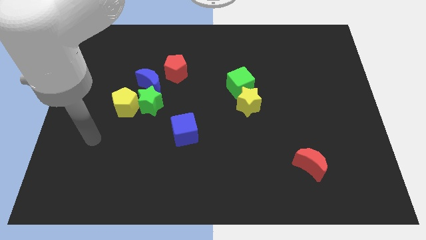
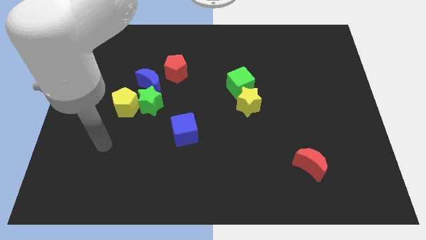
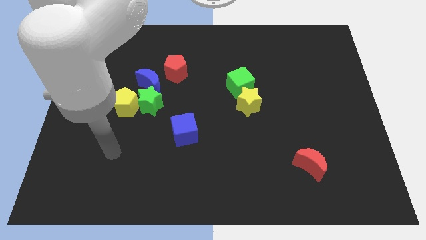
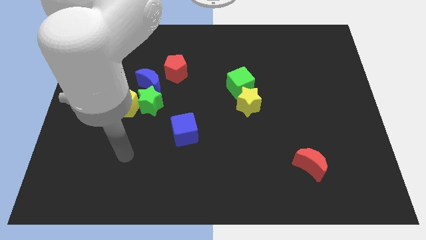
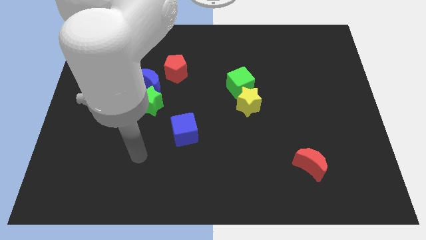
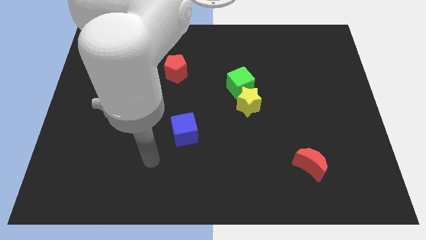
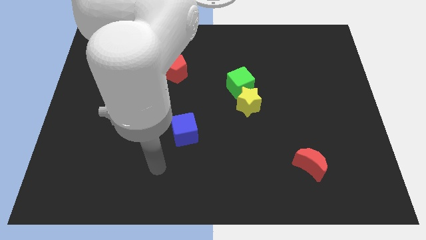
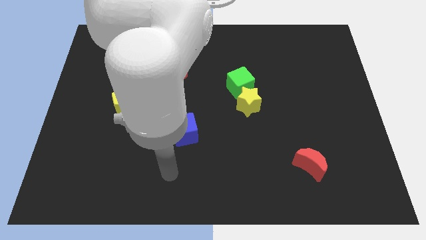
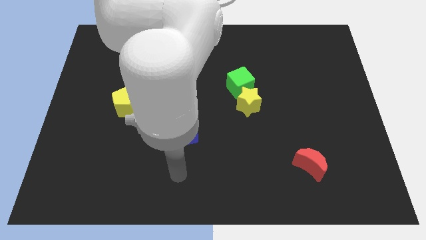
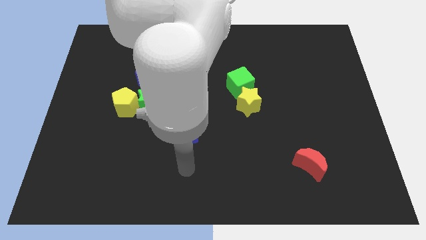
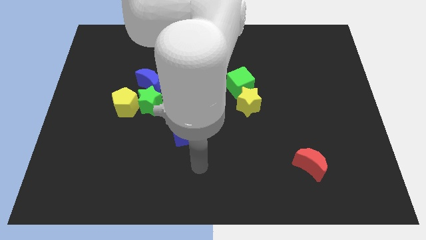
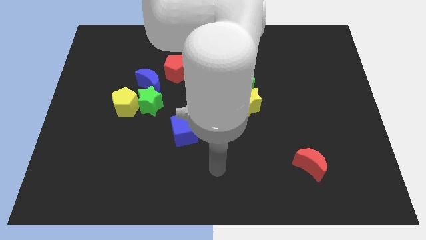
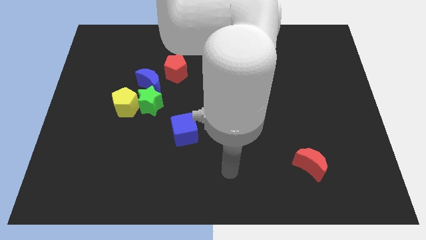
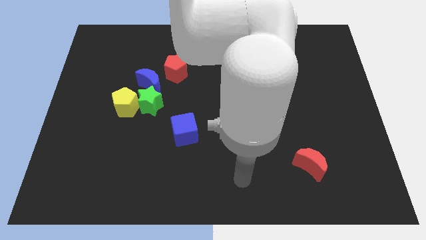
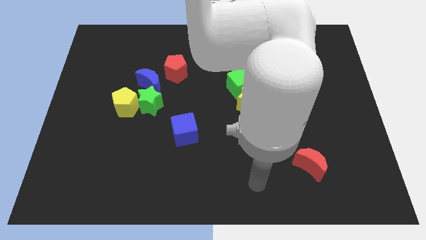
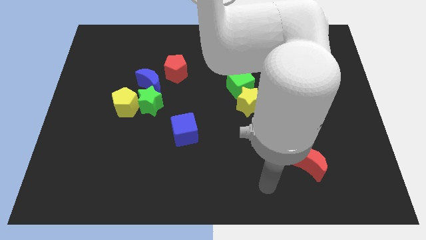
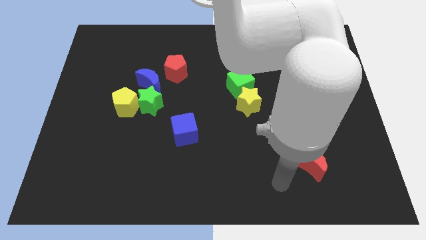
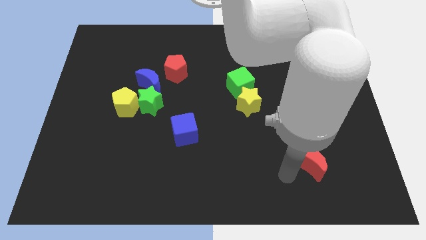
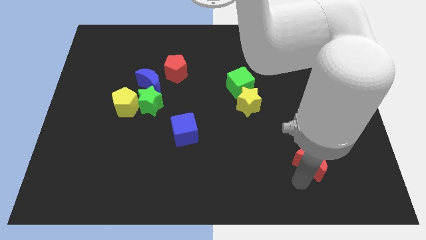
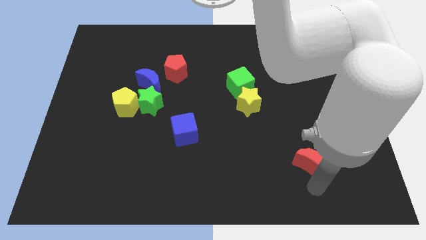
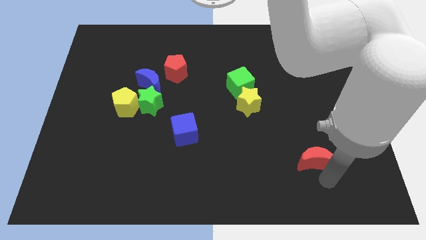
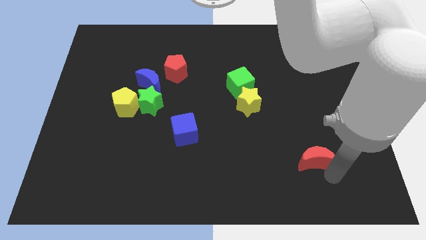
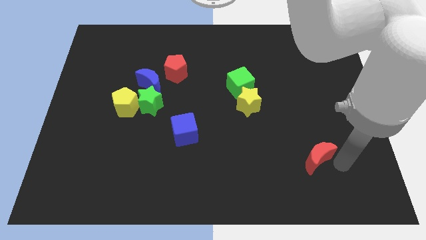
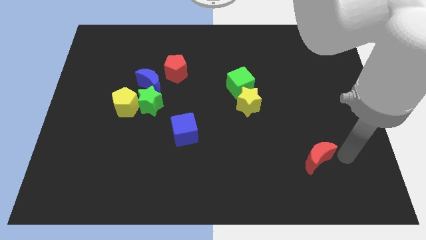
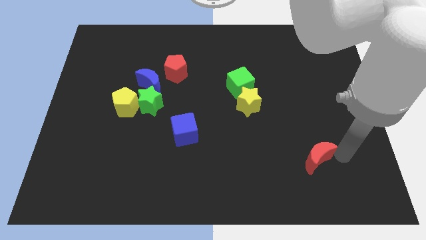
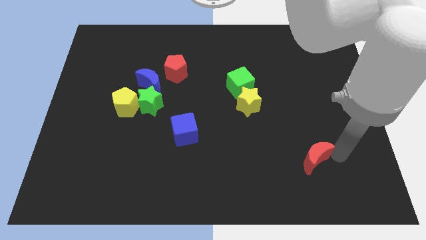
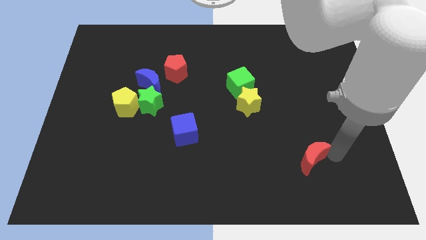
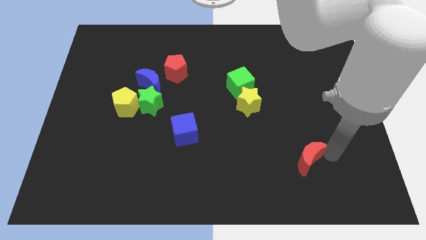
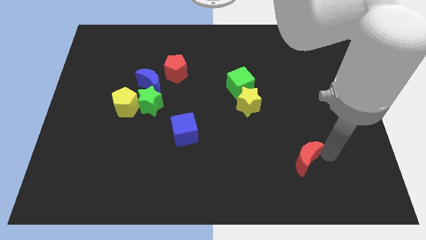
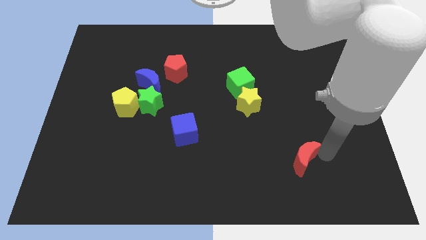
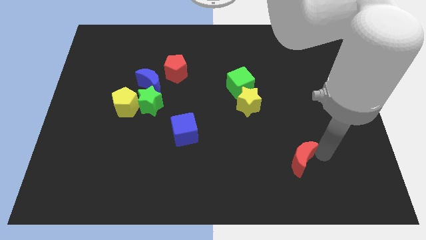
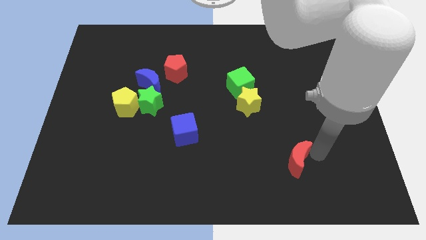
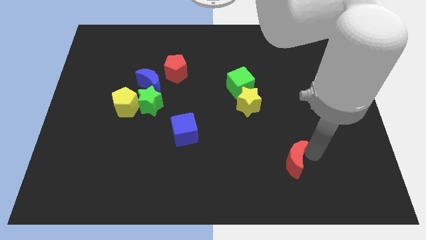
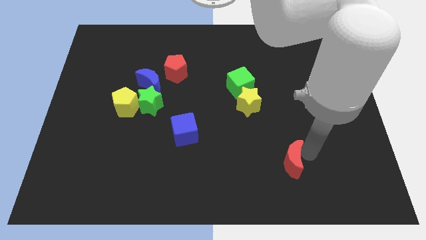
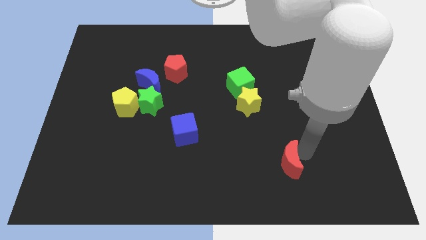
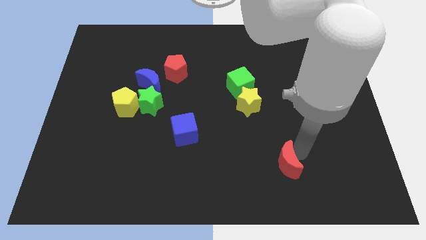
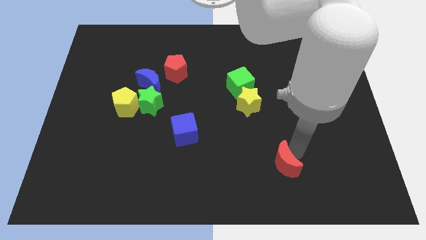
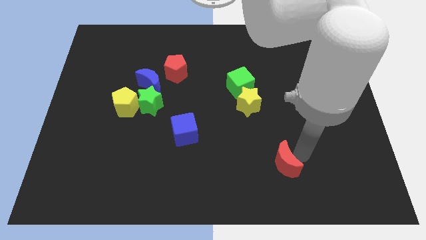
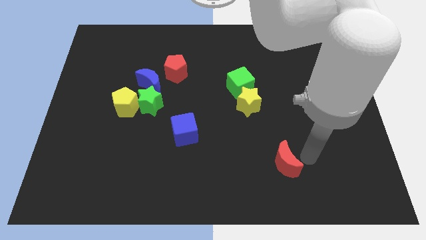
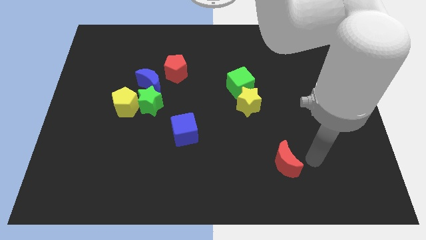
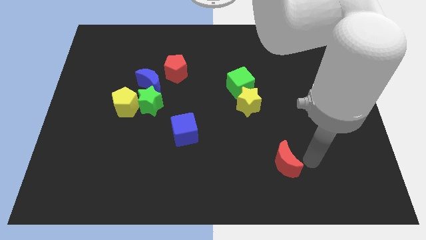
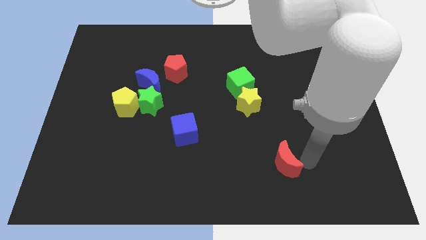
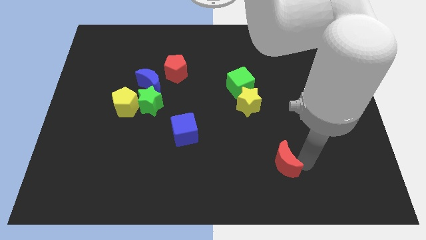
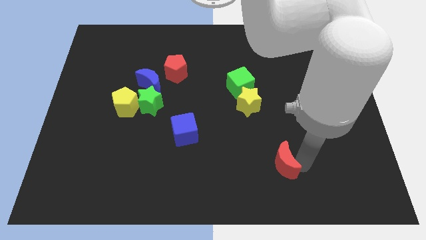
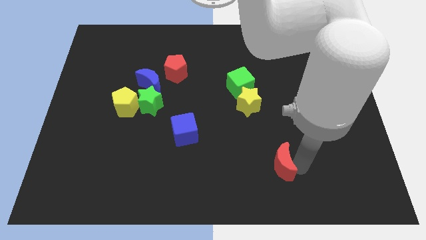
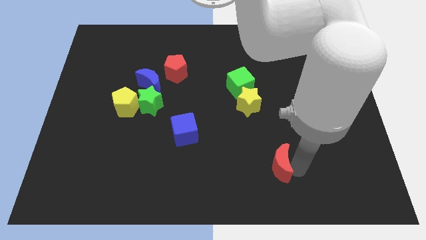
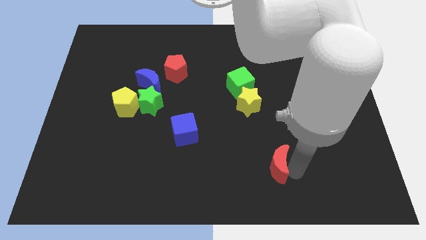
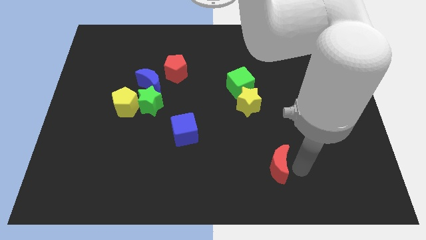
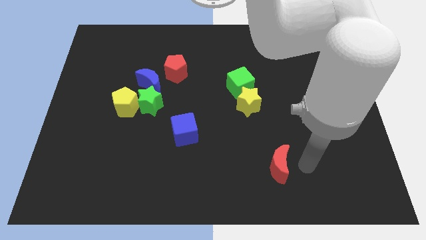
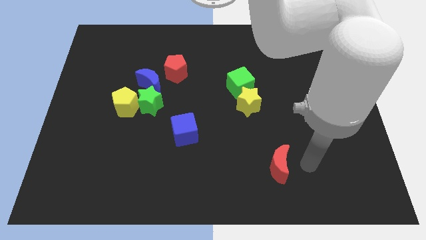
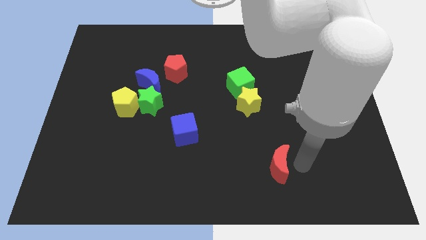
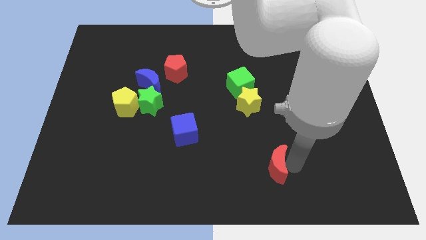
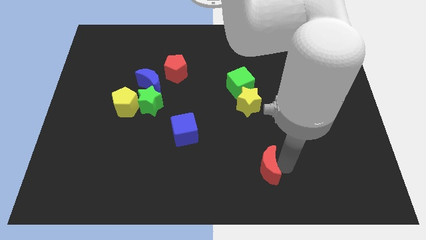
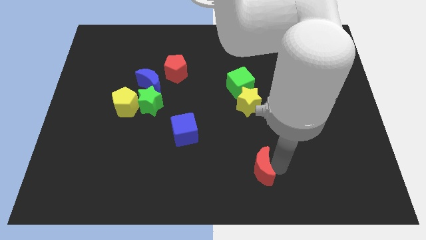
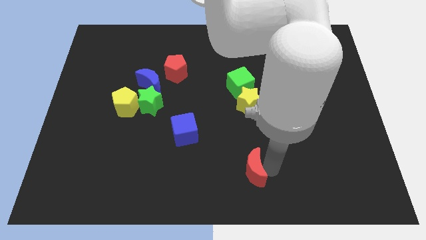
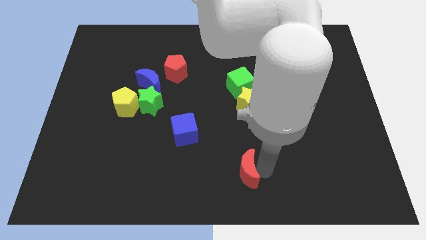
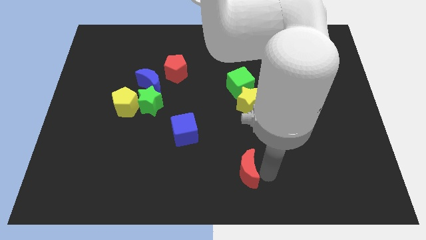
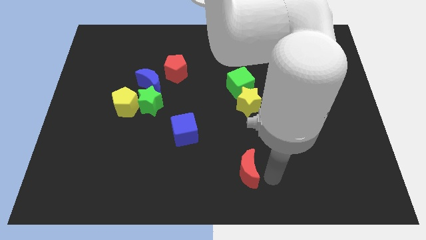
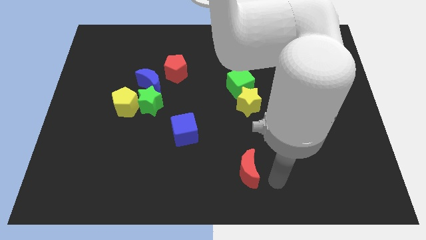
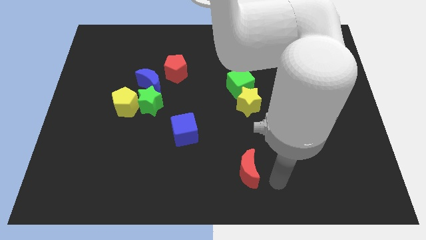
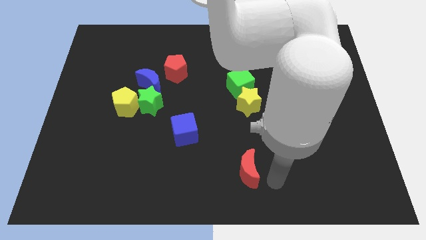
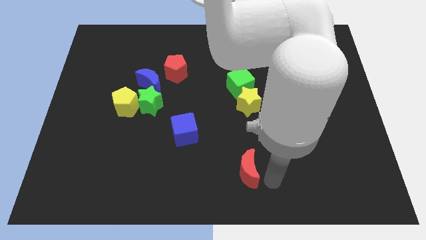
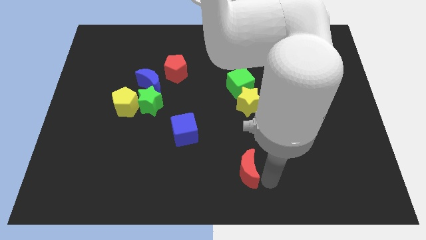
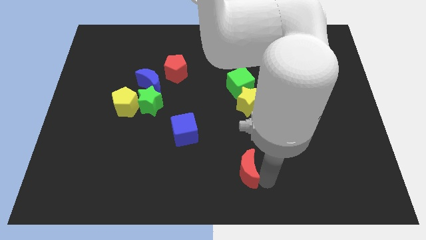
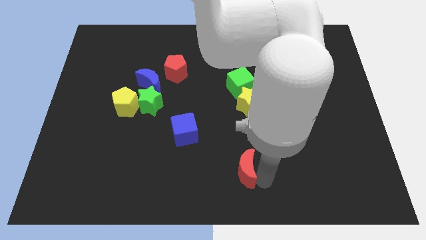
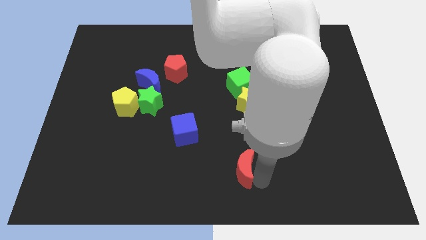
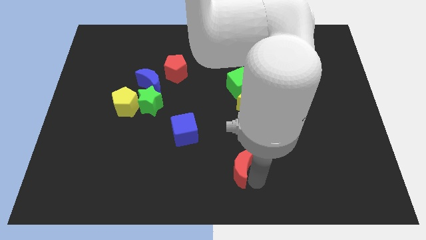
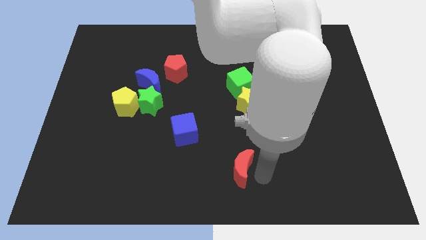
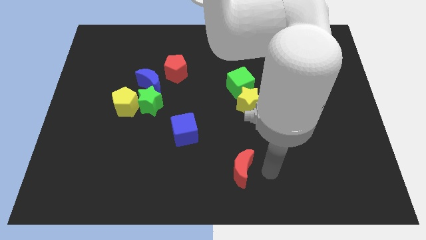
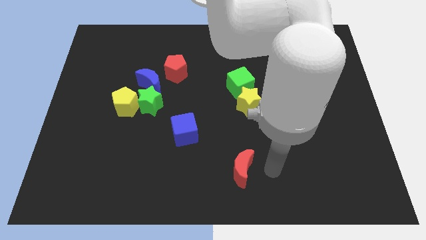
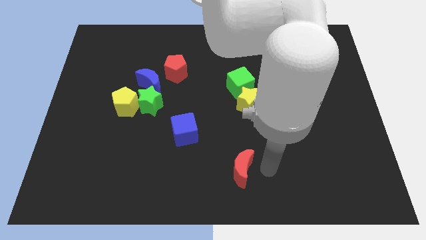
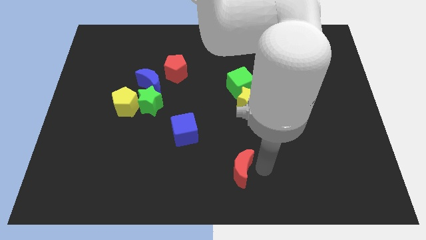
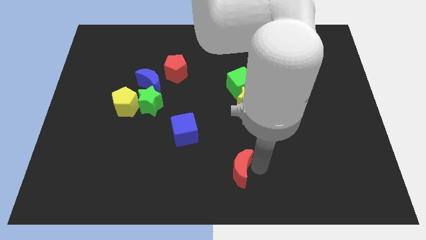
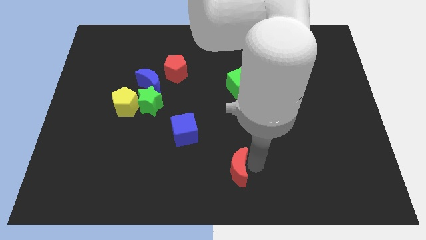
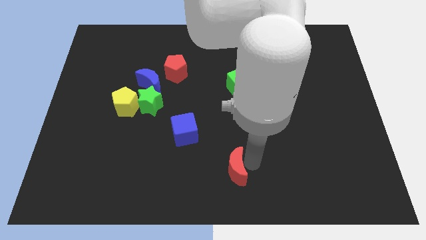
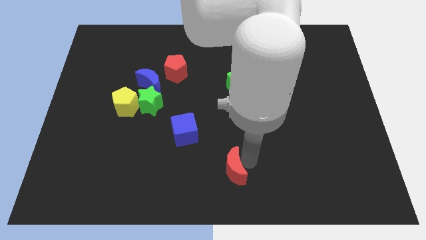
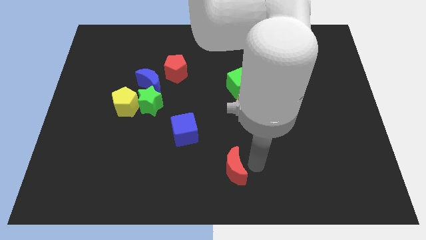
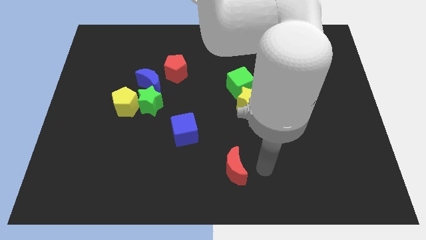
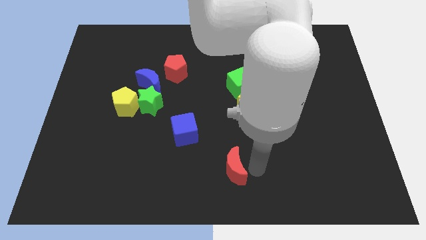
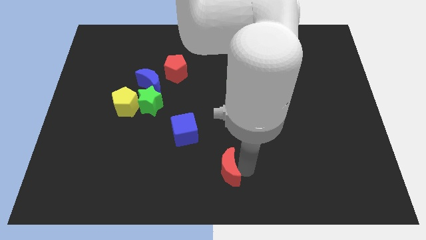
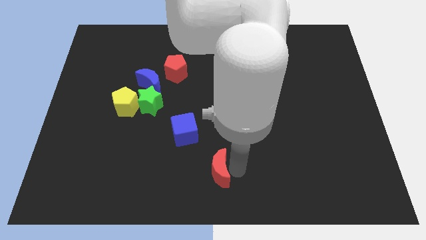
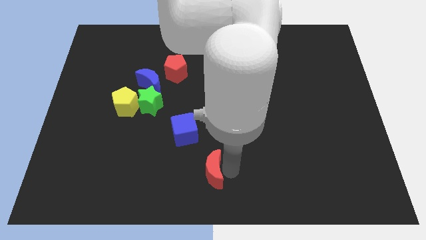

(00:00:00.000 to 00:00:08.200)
move the red moon left

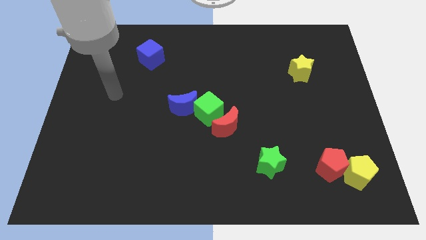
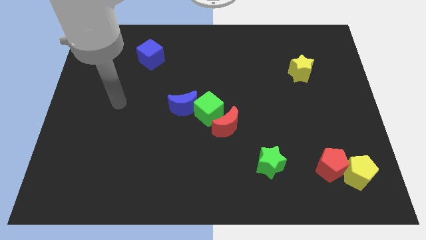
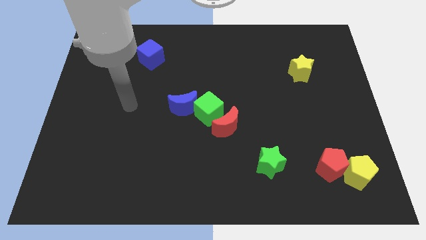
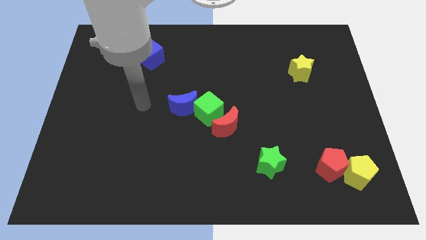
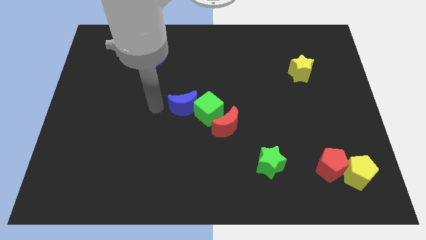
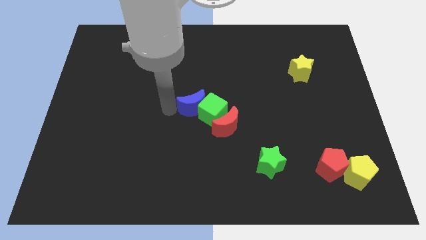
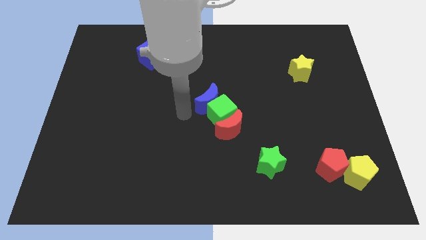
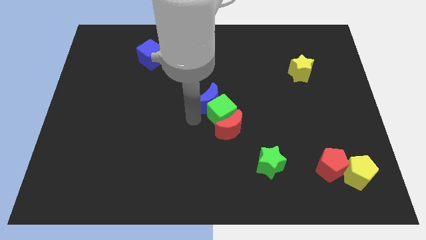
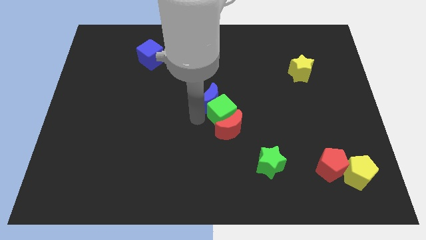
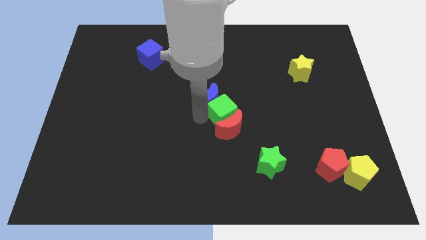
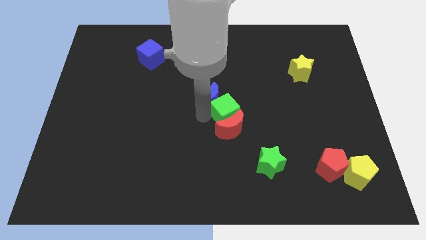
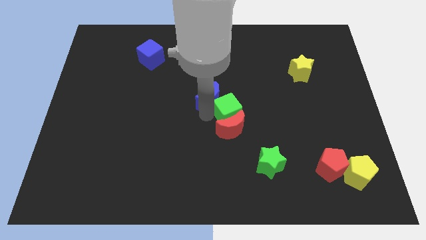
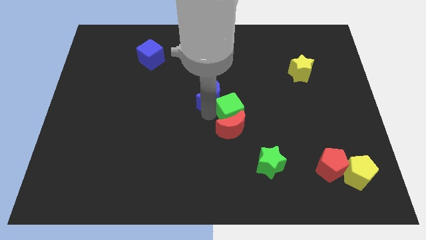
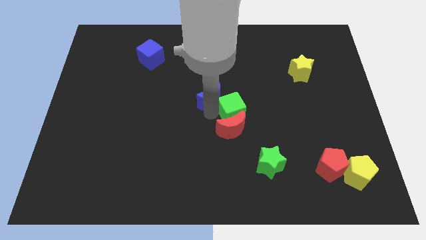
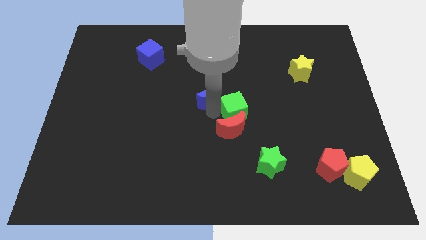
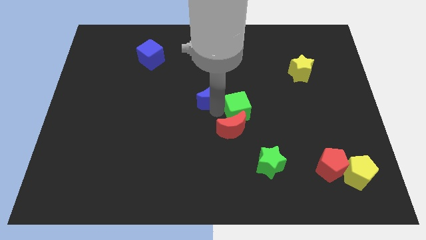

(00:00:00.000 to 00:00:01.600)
move the green cube slightly to the right
